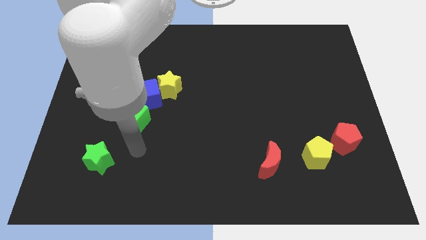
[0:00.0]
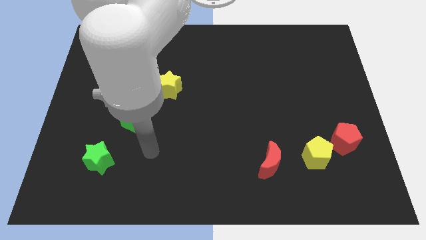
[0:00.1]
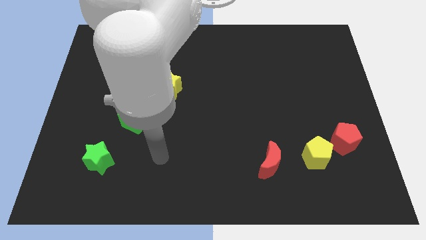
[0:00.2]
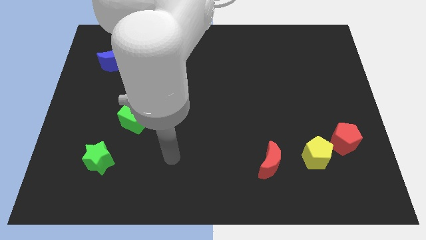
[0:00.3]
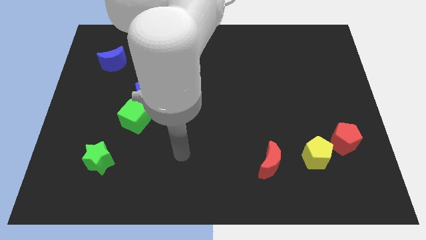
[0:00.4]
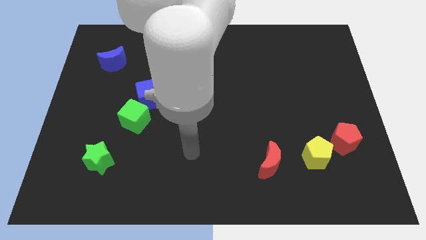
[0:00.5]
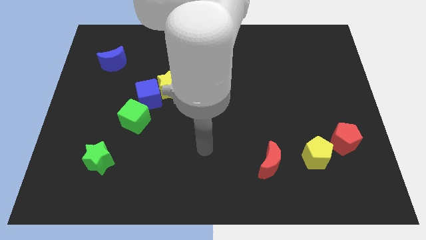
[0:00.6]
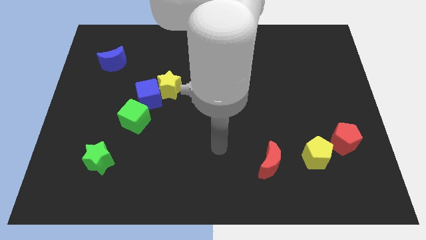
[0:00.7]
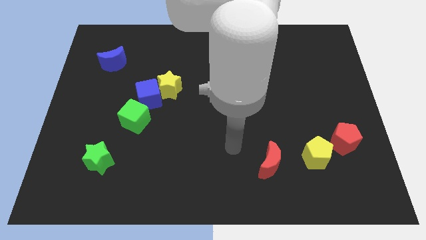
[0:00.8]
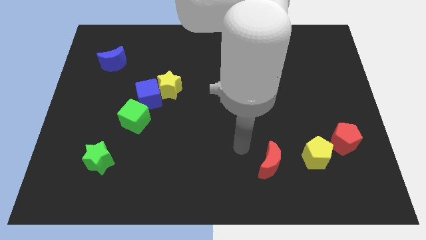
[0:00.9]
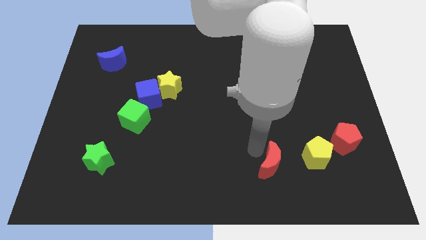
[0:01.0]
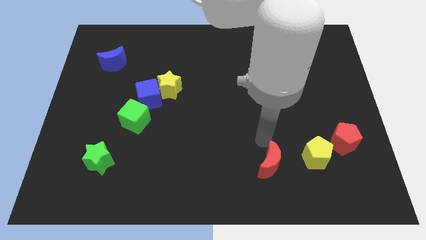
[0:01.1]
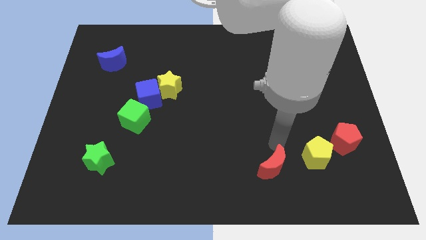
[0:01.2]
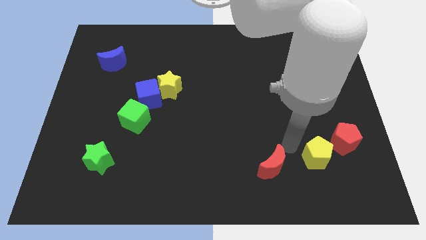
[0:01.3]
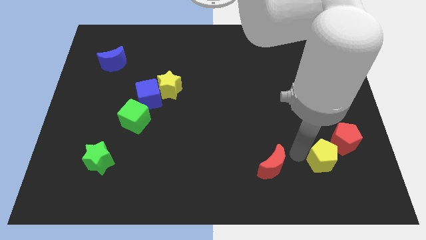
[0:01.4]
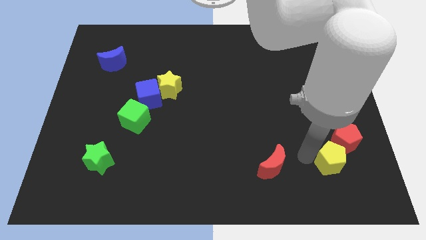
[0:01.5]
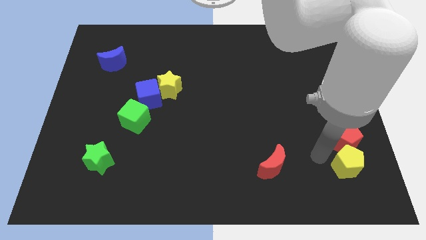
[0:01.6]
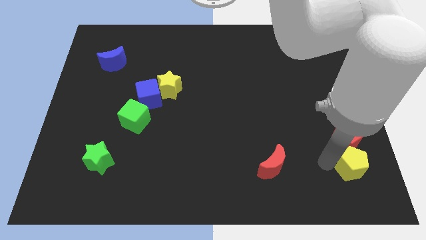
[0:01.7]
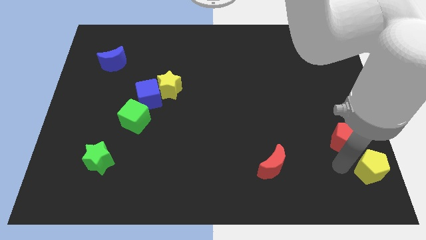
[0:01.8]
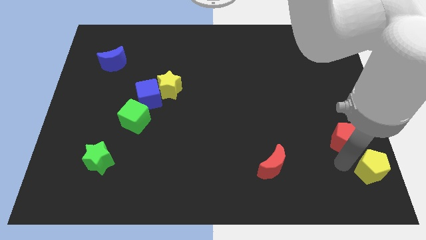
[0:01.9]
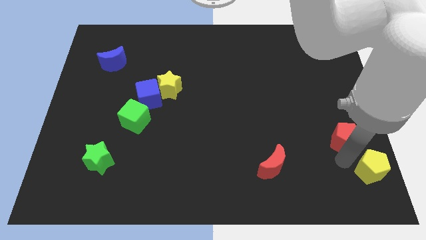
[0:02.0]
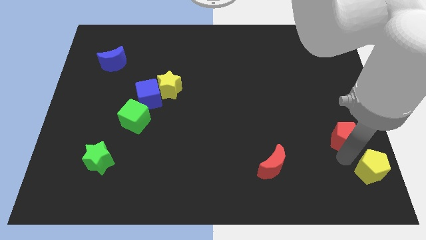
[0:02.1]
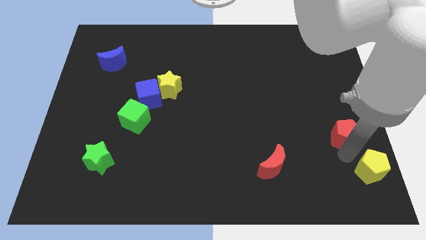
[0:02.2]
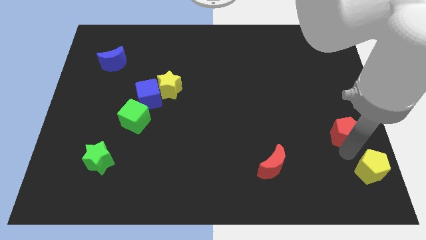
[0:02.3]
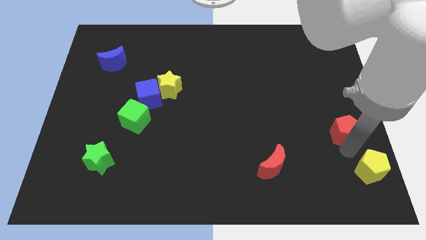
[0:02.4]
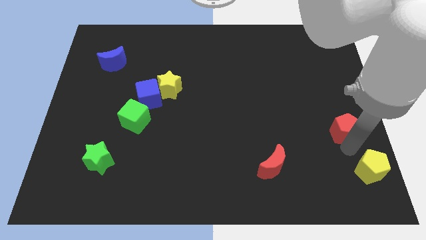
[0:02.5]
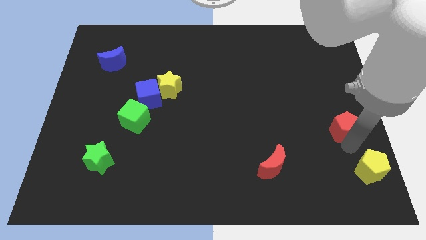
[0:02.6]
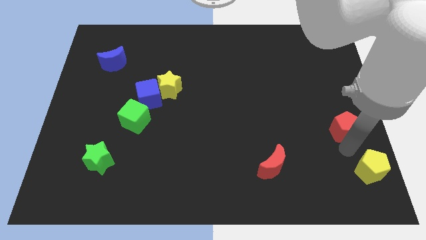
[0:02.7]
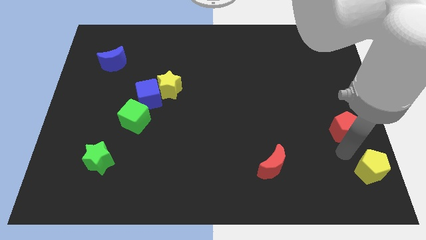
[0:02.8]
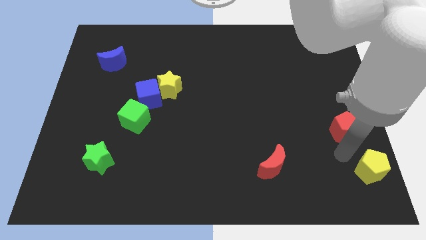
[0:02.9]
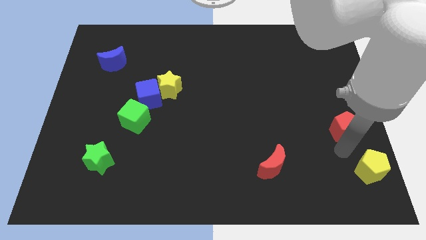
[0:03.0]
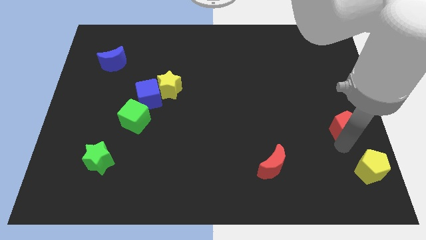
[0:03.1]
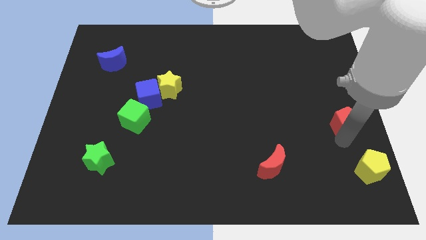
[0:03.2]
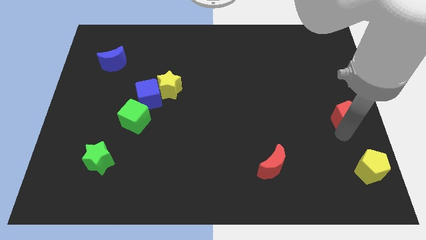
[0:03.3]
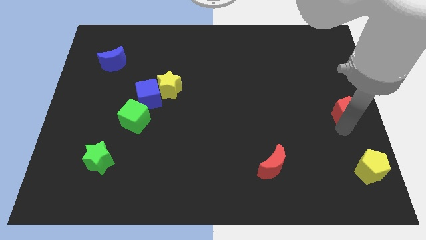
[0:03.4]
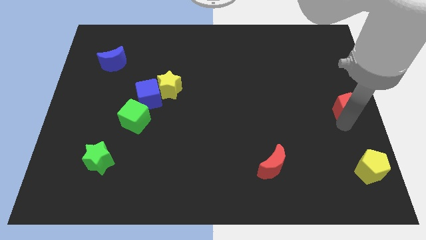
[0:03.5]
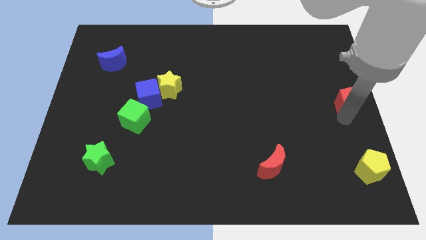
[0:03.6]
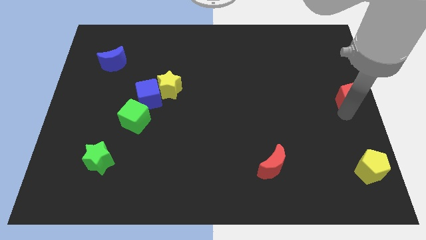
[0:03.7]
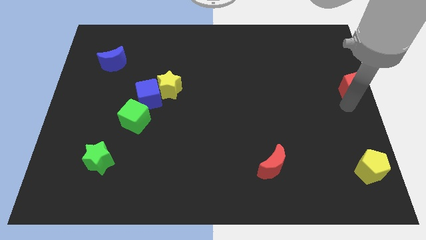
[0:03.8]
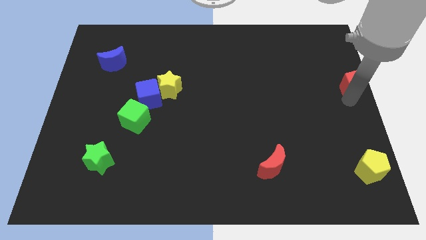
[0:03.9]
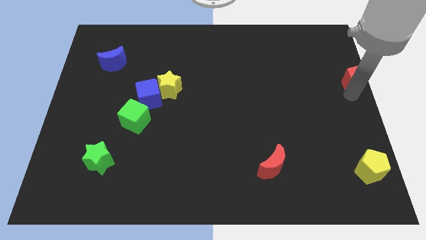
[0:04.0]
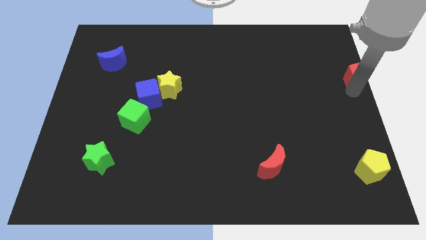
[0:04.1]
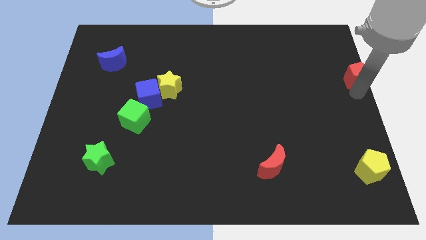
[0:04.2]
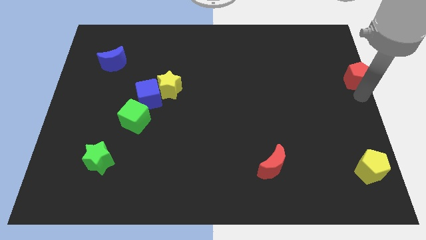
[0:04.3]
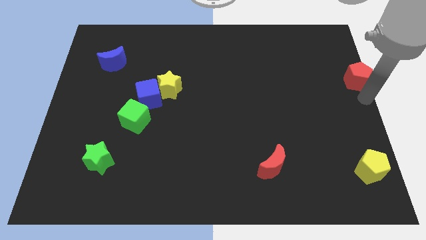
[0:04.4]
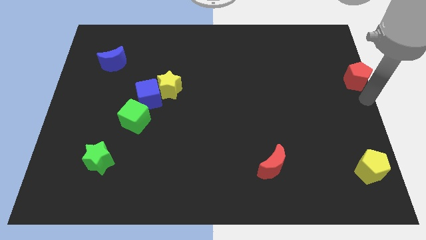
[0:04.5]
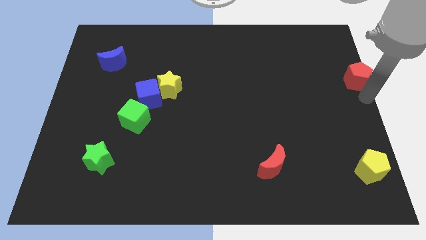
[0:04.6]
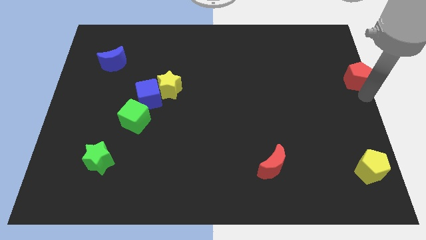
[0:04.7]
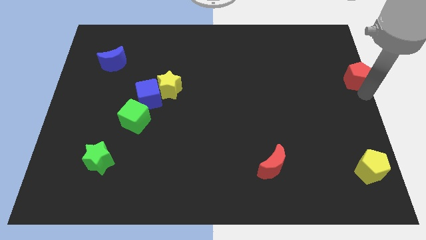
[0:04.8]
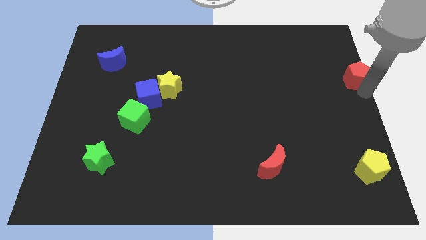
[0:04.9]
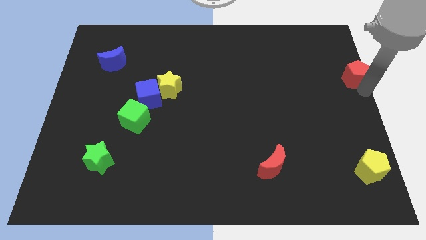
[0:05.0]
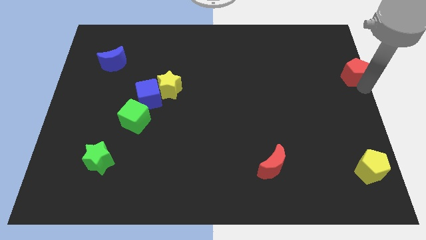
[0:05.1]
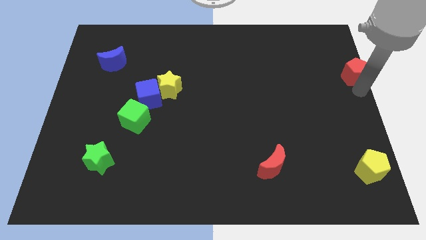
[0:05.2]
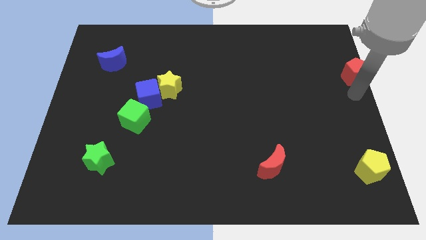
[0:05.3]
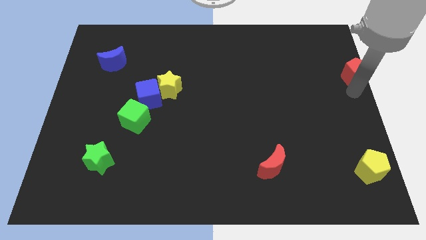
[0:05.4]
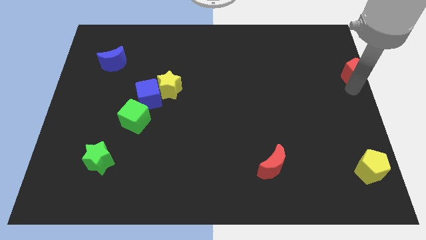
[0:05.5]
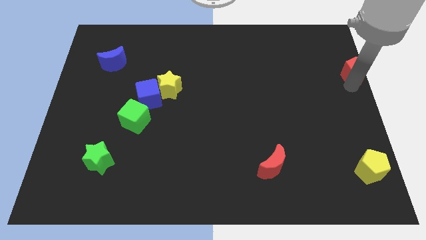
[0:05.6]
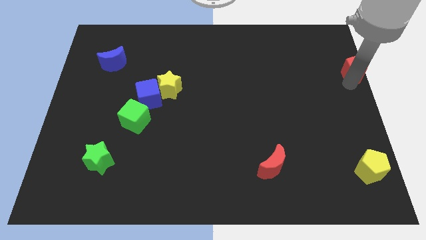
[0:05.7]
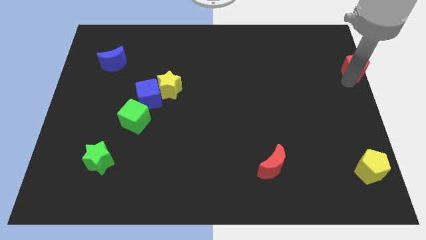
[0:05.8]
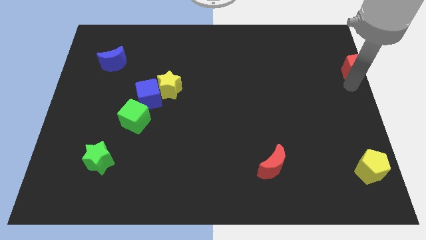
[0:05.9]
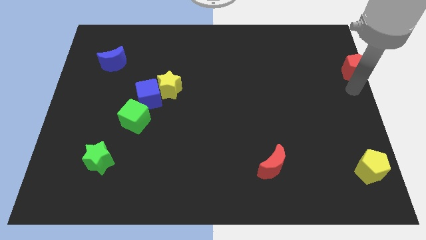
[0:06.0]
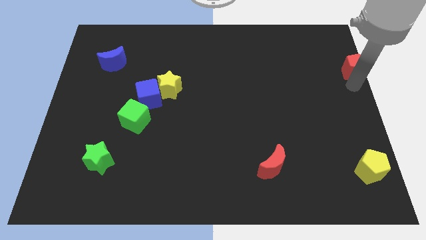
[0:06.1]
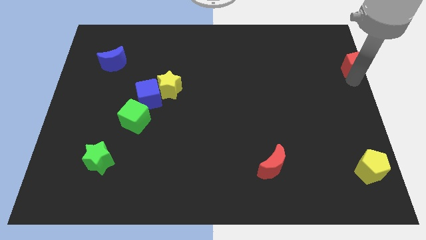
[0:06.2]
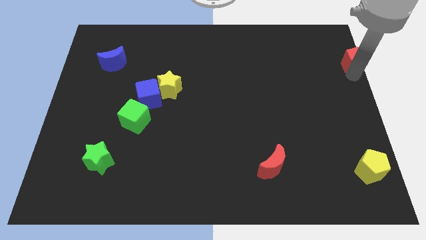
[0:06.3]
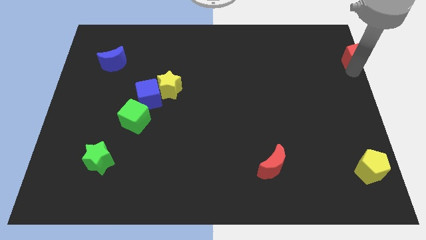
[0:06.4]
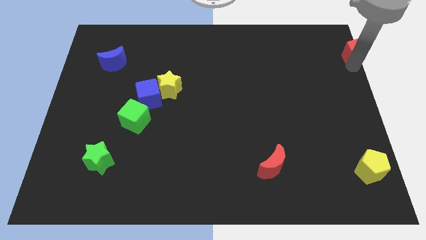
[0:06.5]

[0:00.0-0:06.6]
put the red pentagon to the top right of the board
